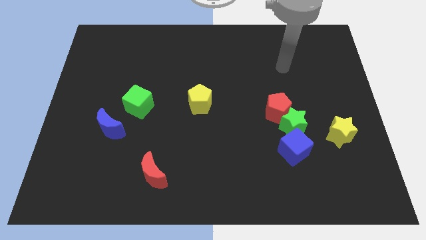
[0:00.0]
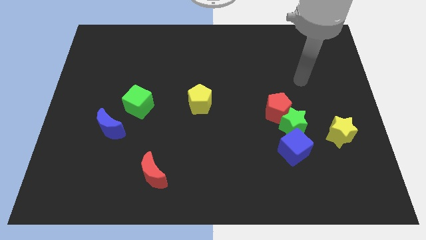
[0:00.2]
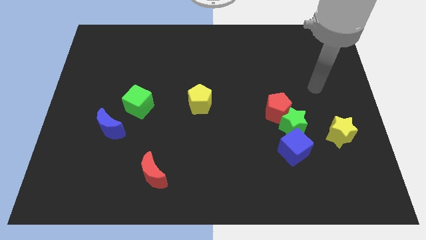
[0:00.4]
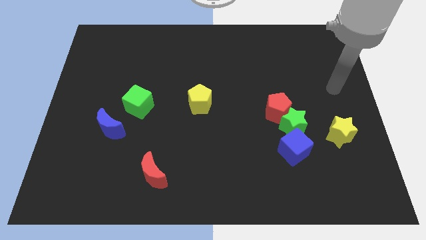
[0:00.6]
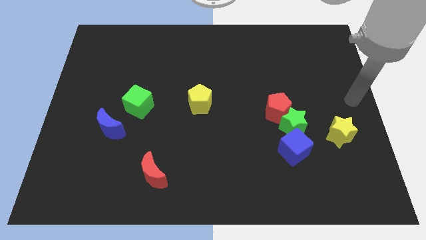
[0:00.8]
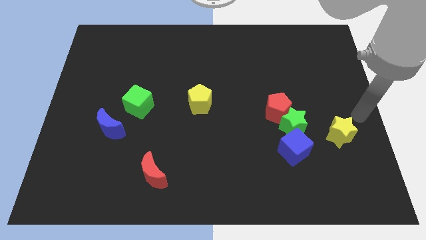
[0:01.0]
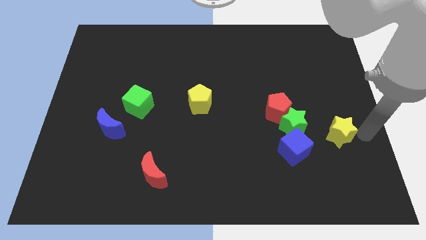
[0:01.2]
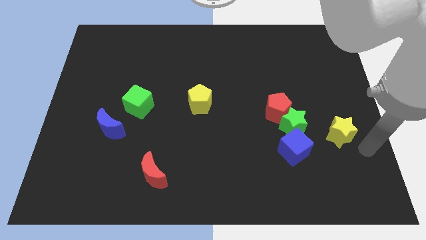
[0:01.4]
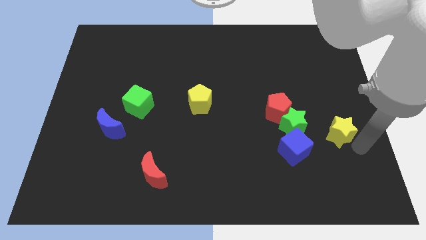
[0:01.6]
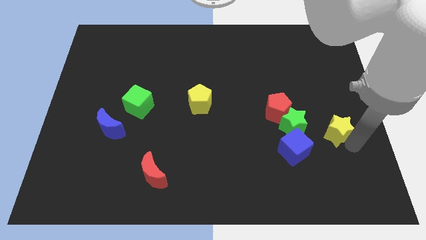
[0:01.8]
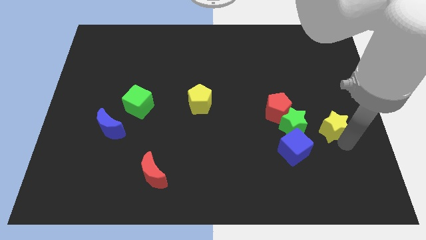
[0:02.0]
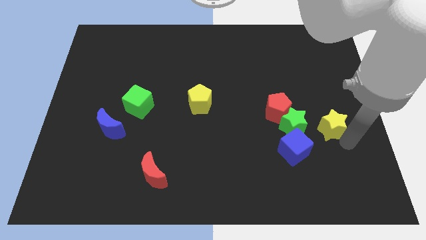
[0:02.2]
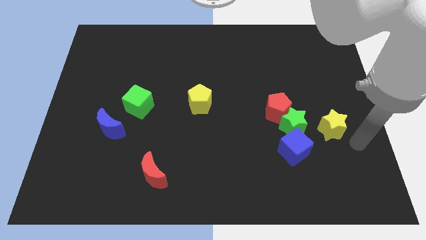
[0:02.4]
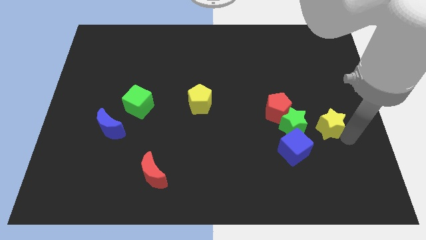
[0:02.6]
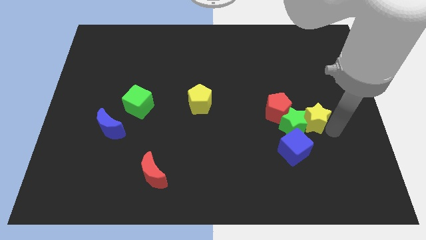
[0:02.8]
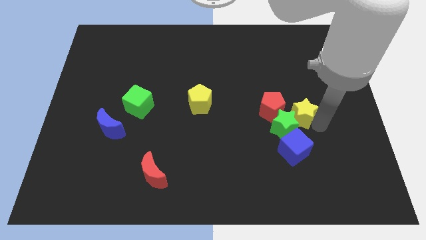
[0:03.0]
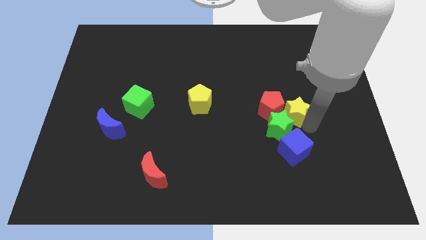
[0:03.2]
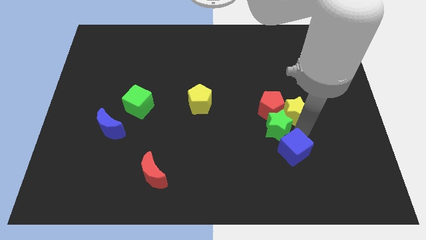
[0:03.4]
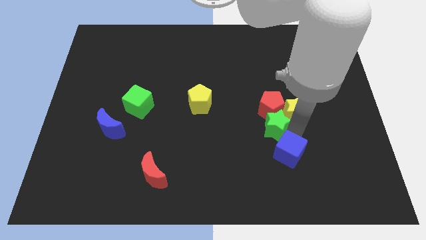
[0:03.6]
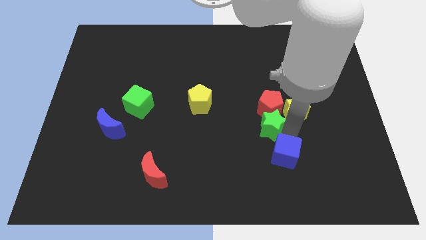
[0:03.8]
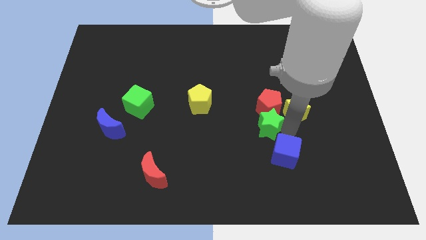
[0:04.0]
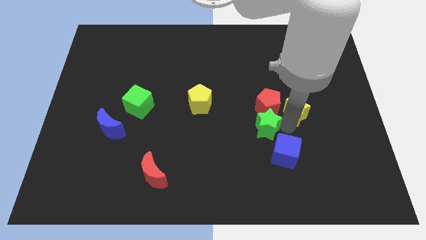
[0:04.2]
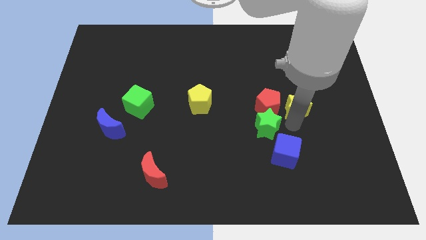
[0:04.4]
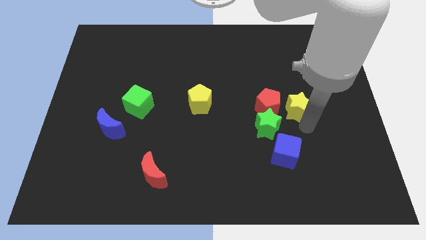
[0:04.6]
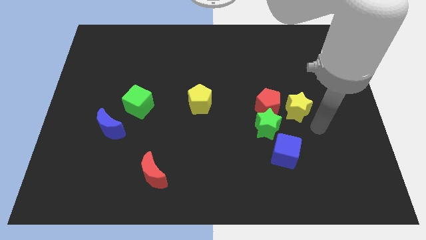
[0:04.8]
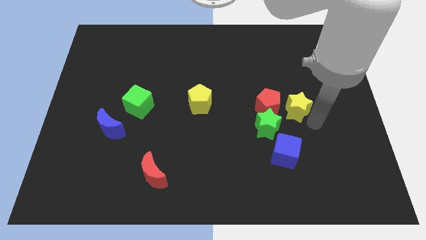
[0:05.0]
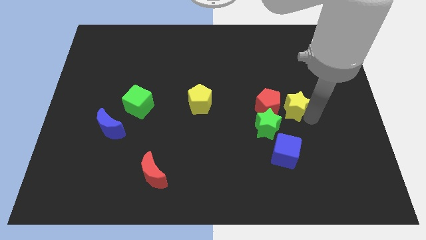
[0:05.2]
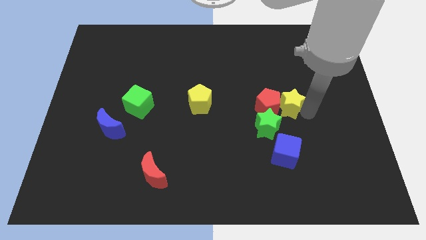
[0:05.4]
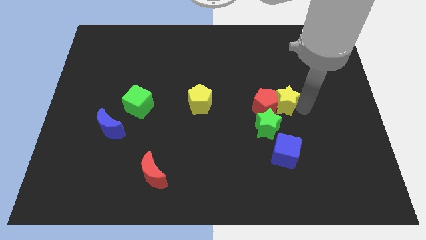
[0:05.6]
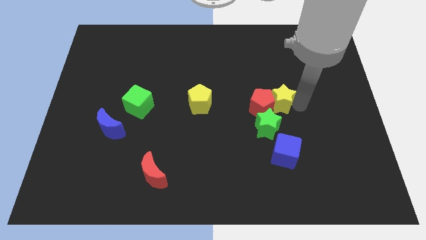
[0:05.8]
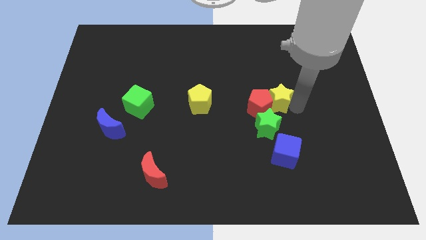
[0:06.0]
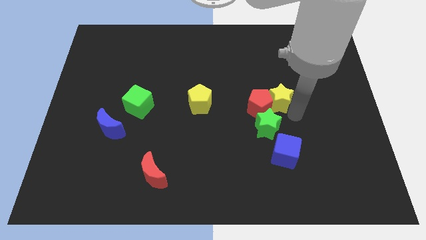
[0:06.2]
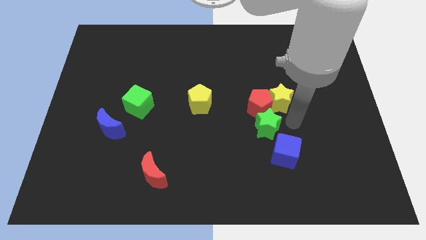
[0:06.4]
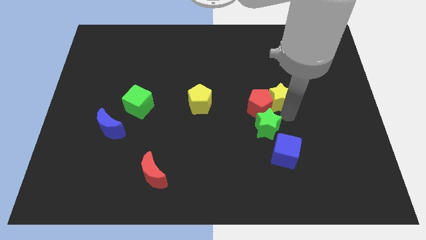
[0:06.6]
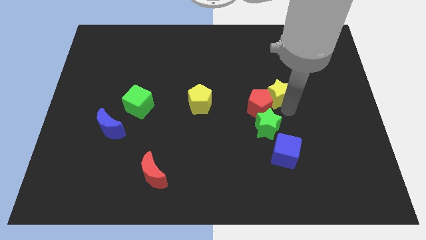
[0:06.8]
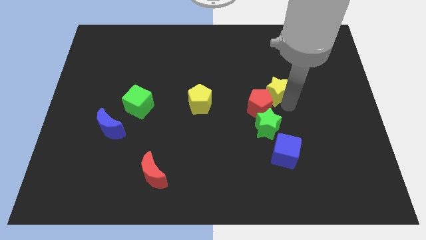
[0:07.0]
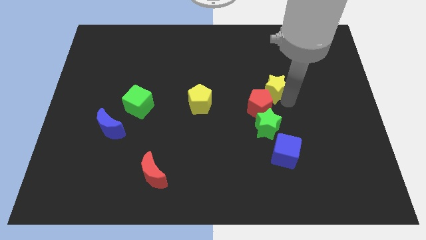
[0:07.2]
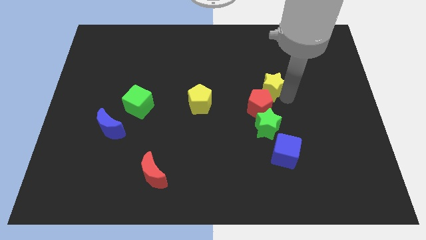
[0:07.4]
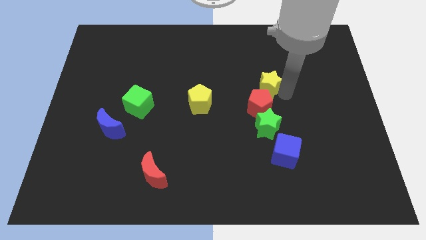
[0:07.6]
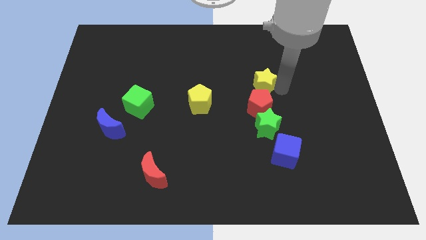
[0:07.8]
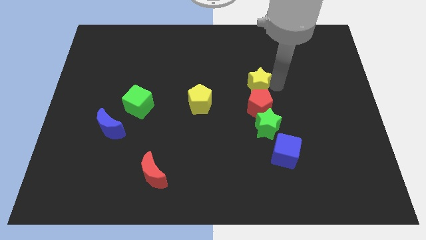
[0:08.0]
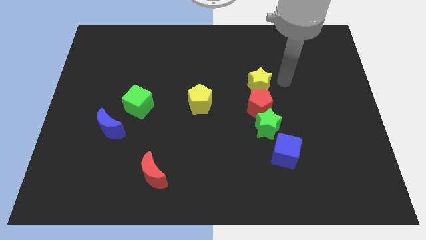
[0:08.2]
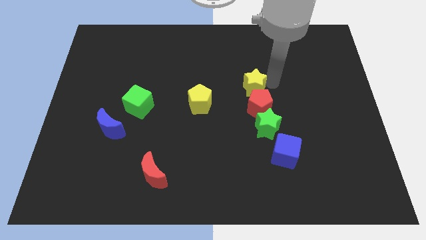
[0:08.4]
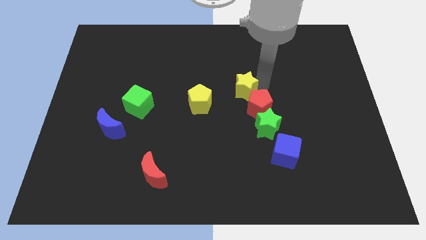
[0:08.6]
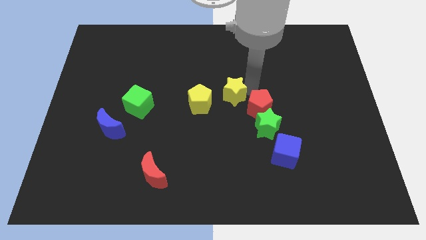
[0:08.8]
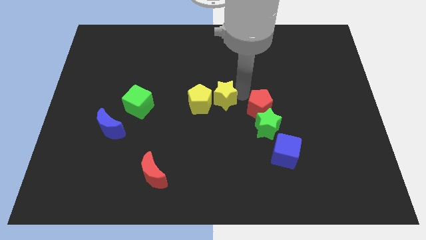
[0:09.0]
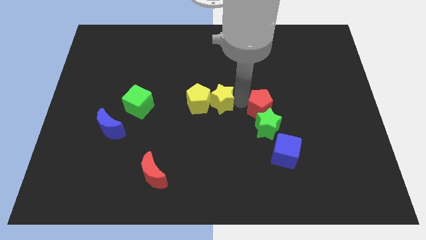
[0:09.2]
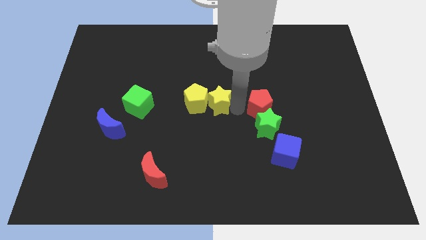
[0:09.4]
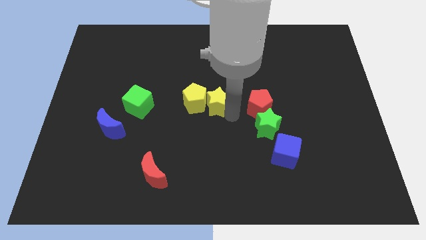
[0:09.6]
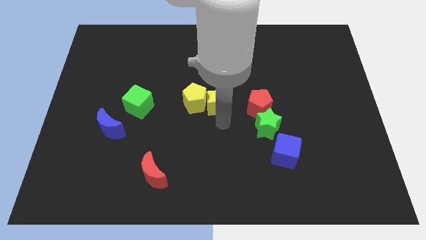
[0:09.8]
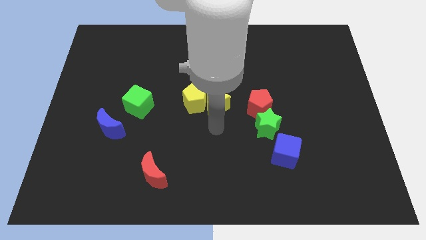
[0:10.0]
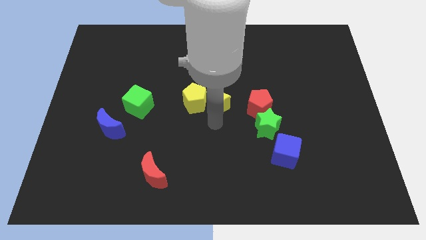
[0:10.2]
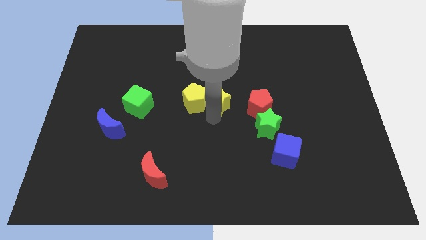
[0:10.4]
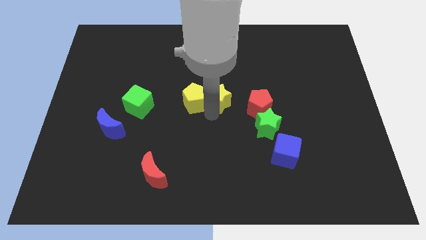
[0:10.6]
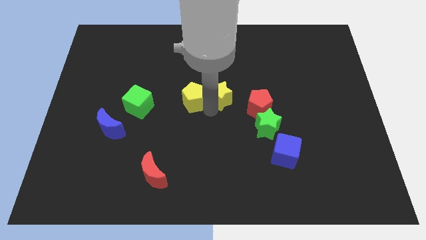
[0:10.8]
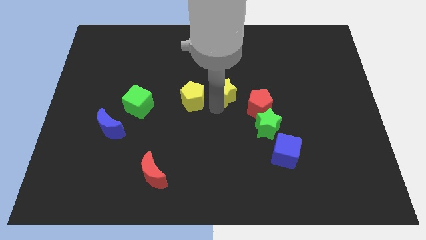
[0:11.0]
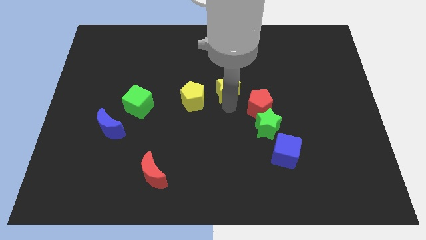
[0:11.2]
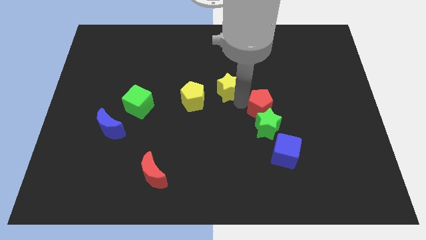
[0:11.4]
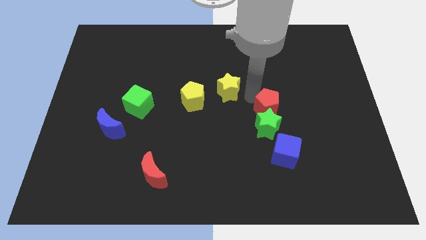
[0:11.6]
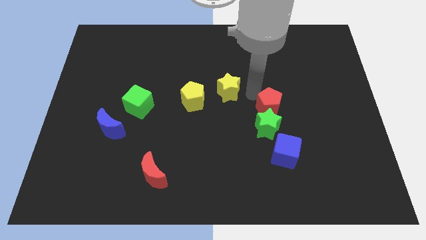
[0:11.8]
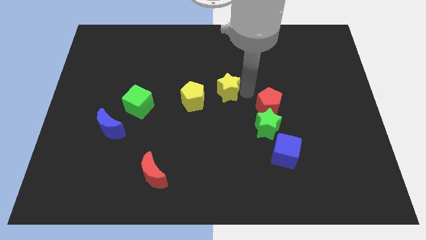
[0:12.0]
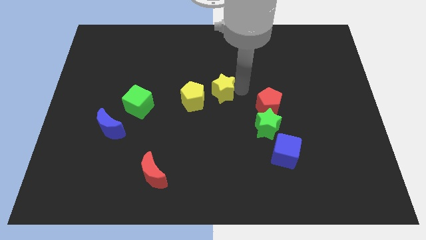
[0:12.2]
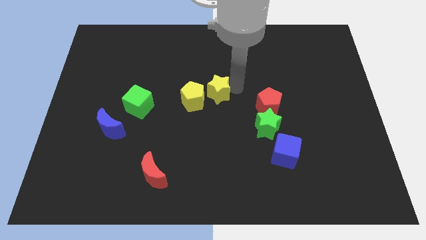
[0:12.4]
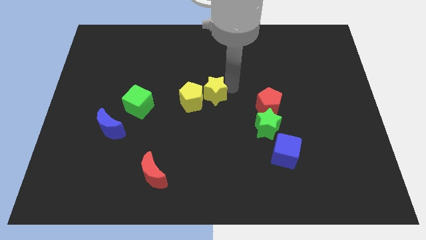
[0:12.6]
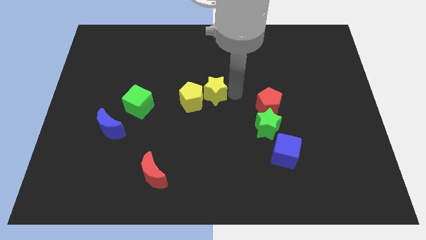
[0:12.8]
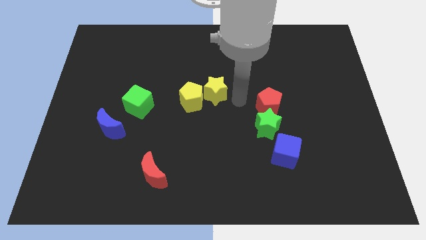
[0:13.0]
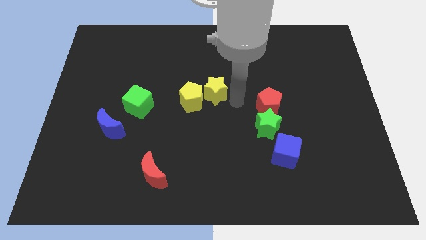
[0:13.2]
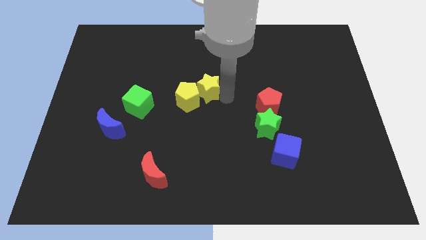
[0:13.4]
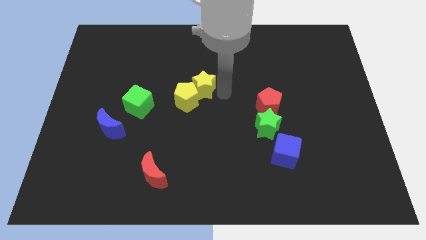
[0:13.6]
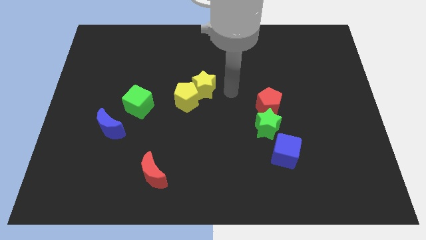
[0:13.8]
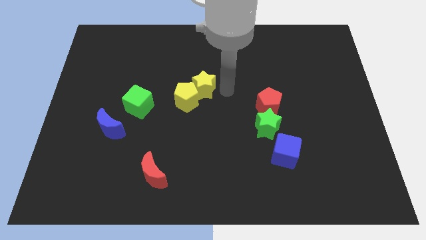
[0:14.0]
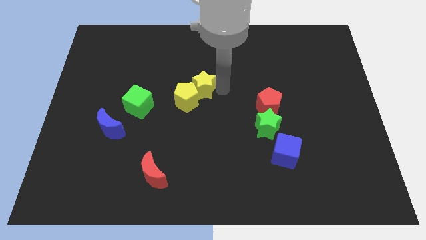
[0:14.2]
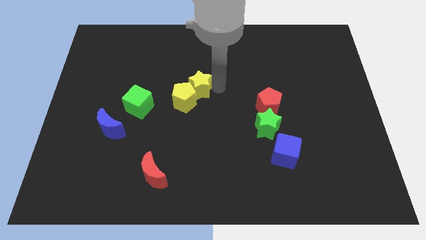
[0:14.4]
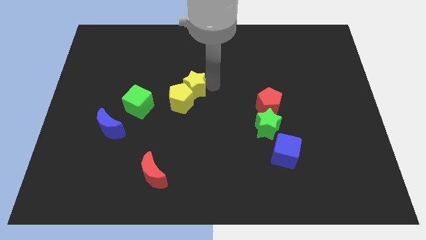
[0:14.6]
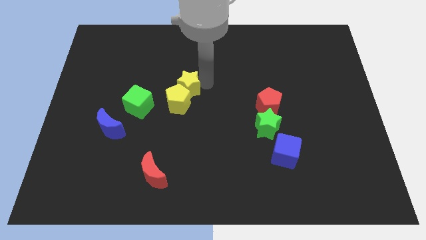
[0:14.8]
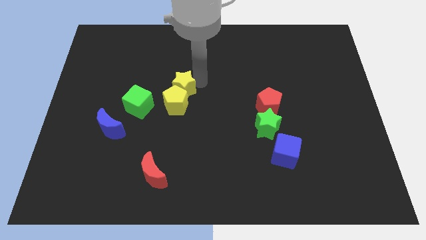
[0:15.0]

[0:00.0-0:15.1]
move the yellow star to the top right side of the green cube
